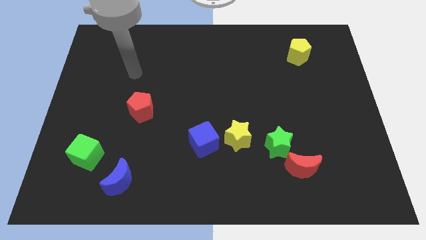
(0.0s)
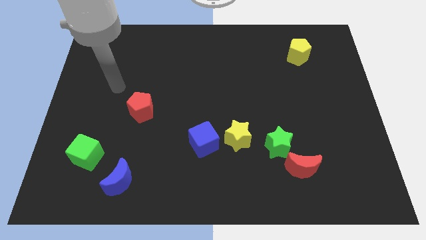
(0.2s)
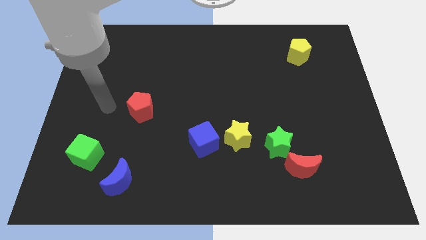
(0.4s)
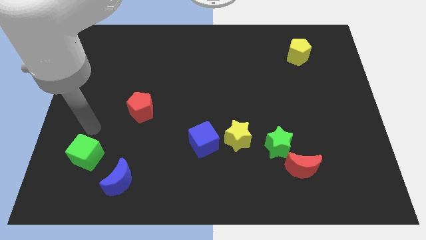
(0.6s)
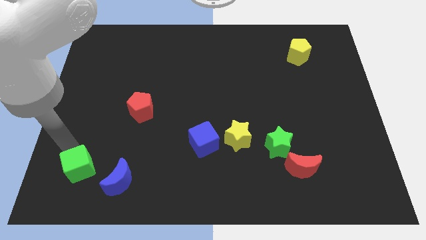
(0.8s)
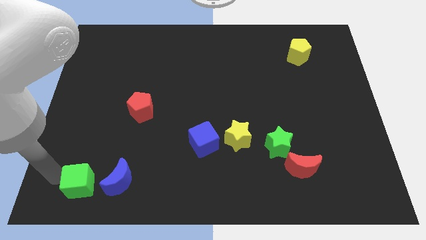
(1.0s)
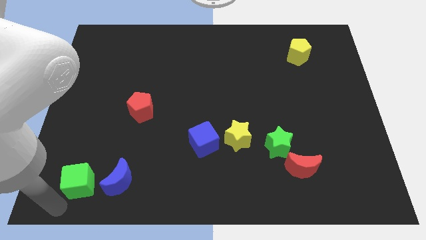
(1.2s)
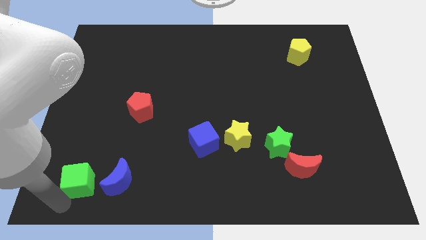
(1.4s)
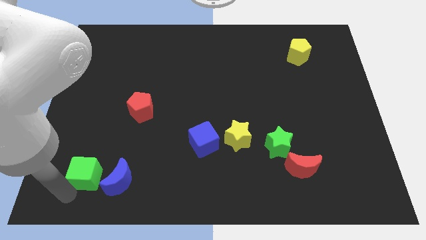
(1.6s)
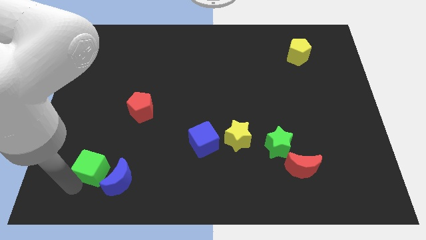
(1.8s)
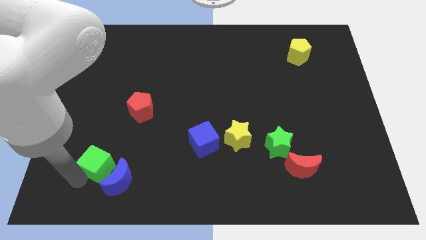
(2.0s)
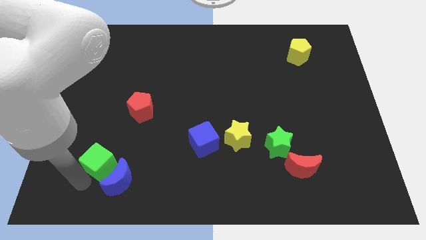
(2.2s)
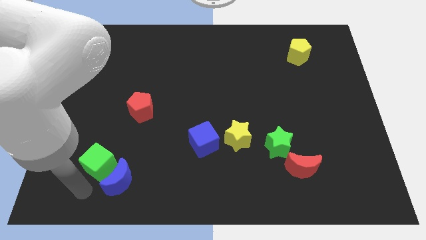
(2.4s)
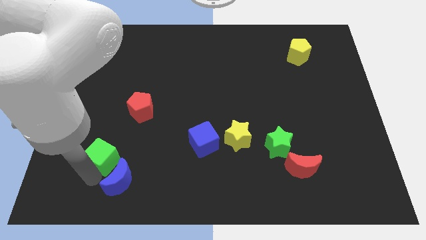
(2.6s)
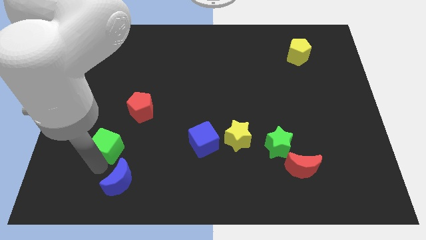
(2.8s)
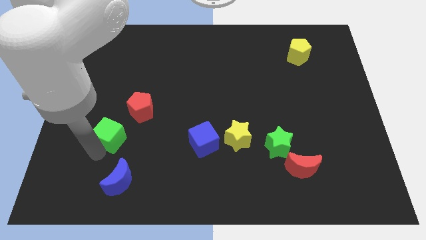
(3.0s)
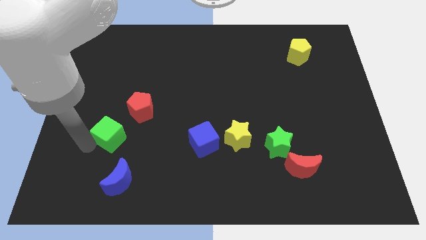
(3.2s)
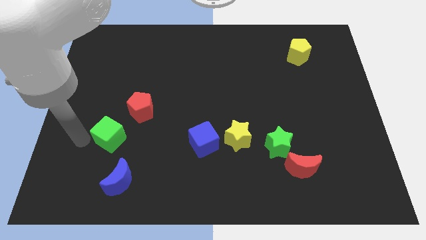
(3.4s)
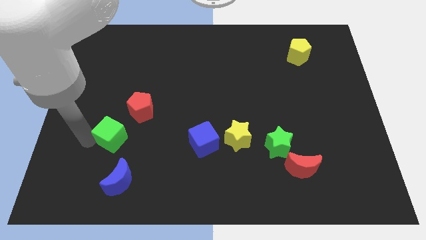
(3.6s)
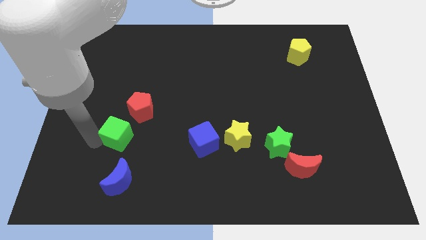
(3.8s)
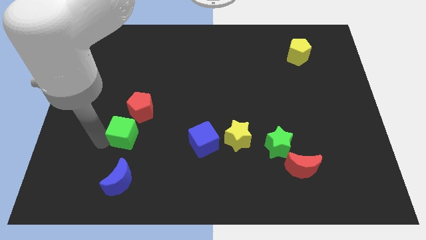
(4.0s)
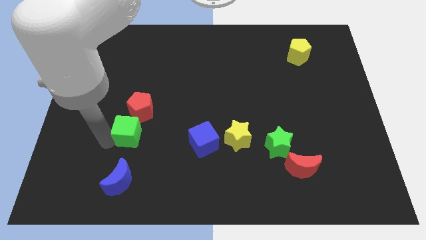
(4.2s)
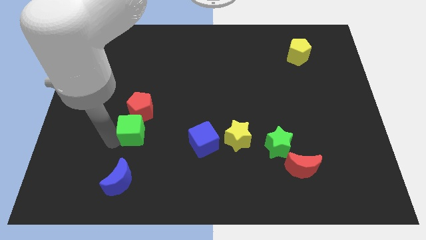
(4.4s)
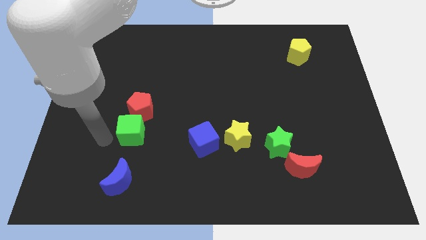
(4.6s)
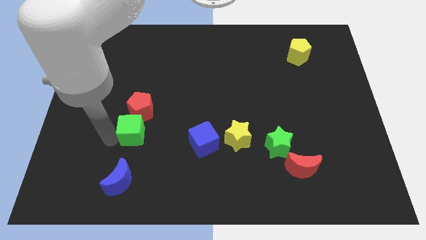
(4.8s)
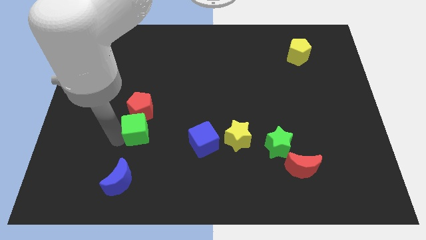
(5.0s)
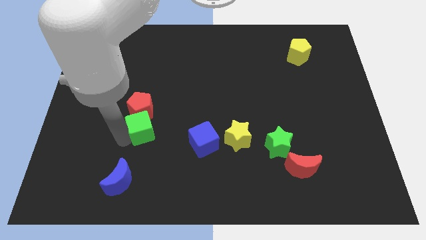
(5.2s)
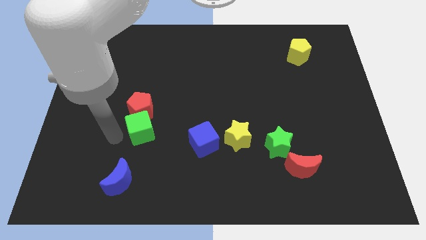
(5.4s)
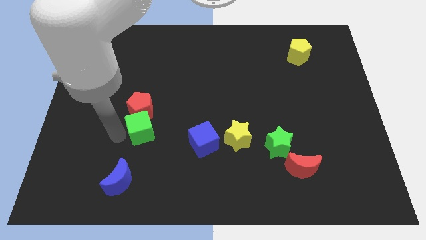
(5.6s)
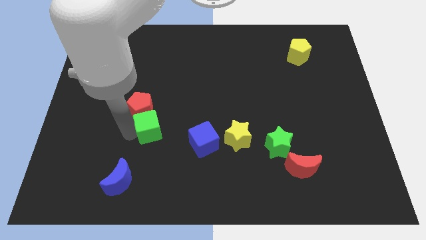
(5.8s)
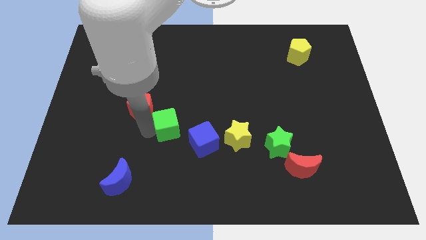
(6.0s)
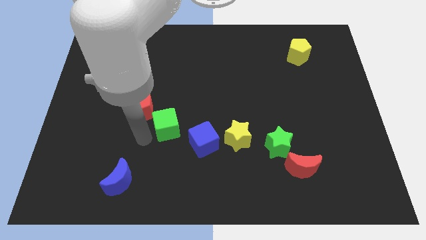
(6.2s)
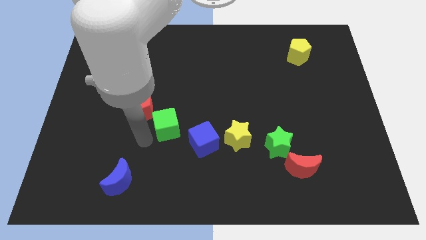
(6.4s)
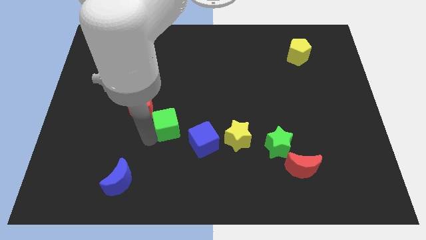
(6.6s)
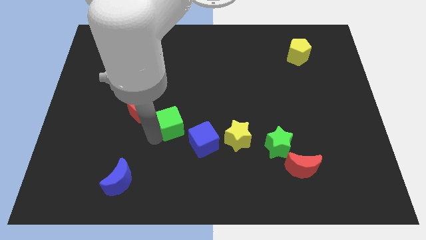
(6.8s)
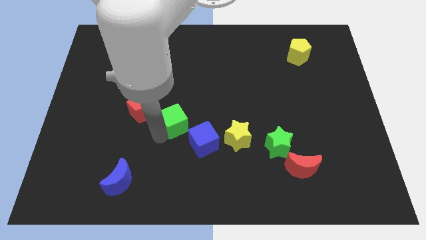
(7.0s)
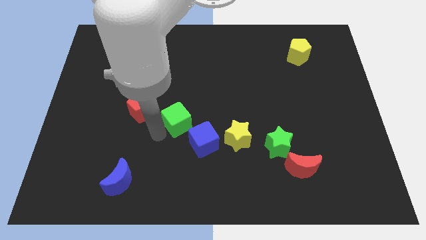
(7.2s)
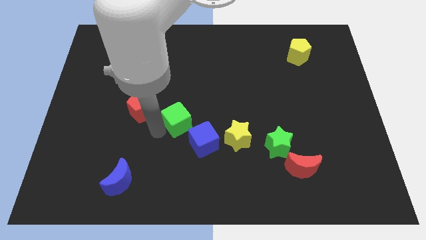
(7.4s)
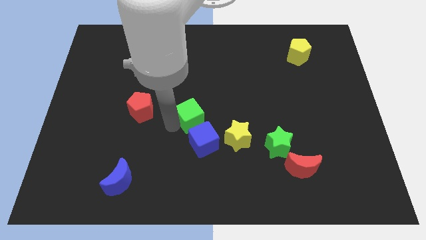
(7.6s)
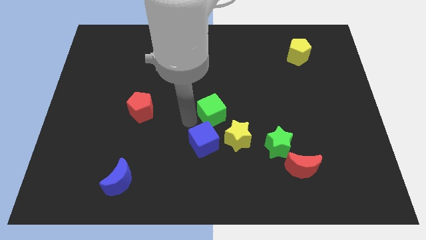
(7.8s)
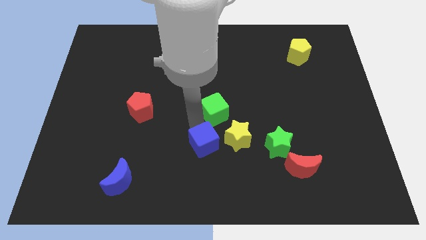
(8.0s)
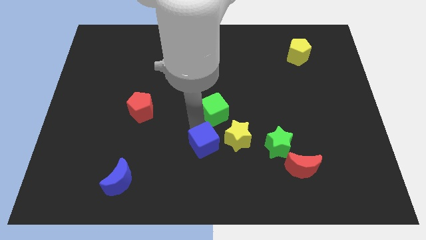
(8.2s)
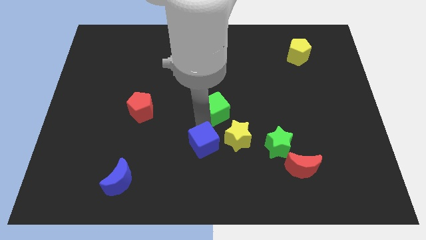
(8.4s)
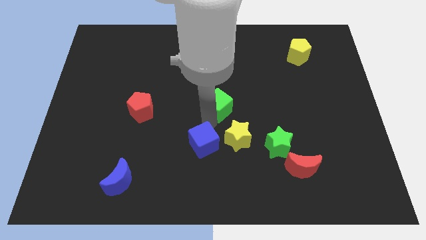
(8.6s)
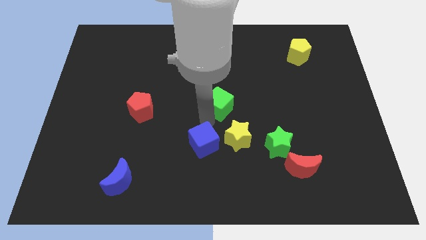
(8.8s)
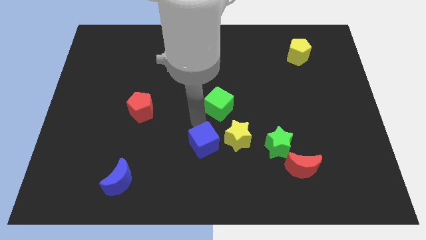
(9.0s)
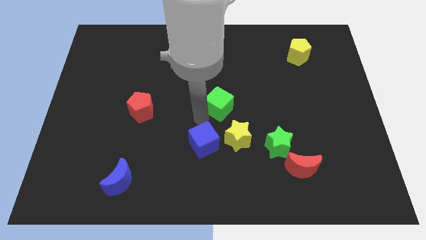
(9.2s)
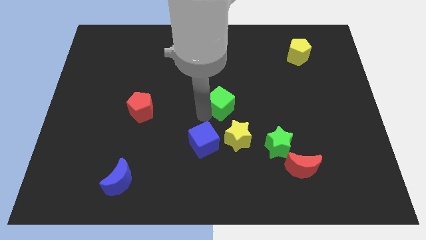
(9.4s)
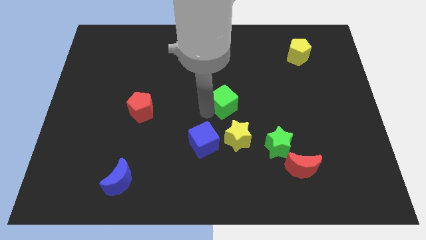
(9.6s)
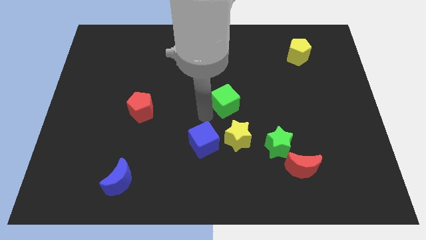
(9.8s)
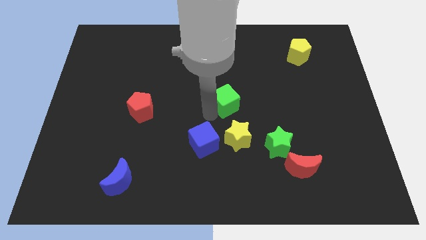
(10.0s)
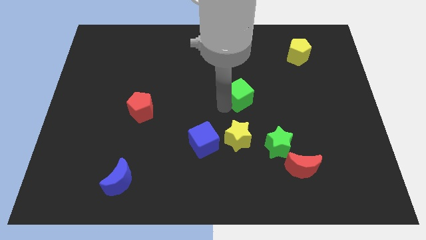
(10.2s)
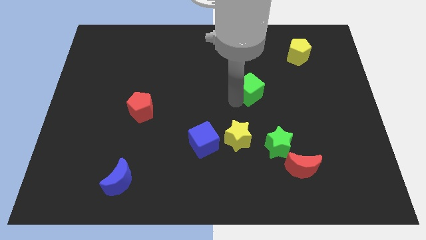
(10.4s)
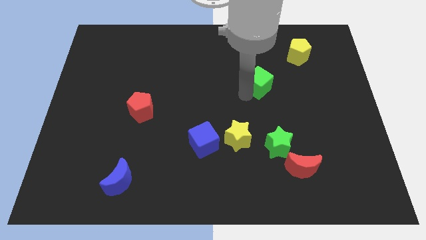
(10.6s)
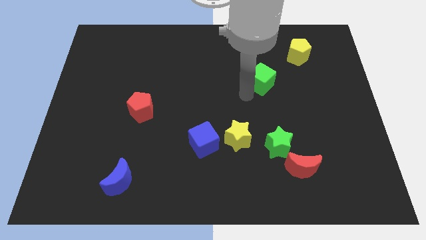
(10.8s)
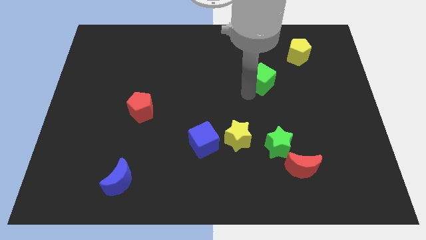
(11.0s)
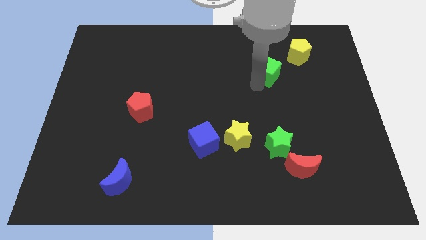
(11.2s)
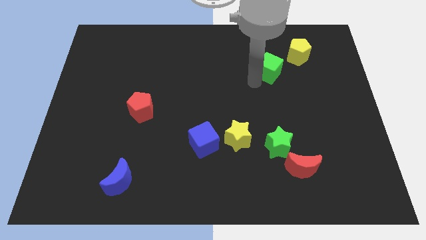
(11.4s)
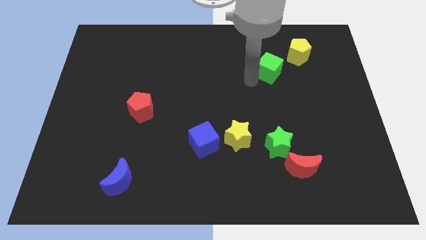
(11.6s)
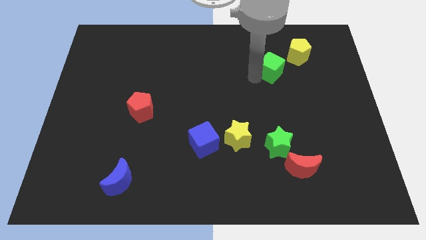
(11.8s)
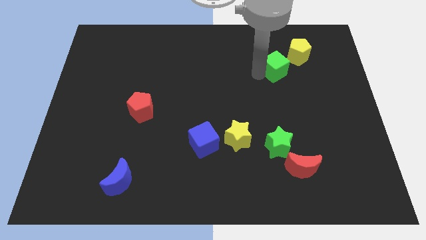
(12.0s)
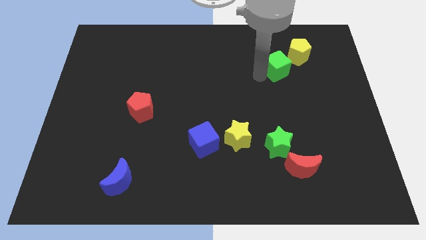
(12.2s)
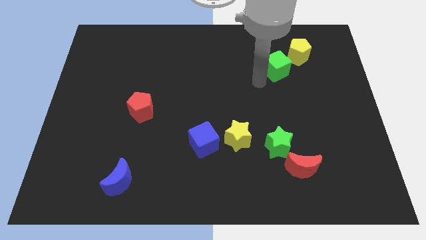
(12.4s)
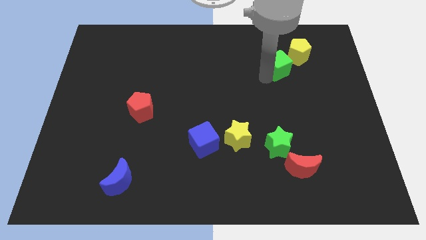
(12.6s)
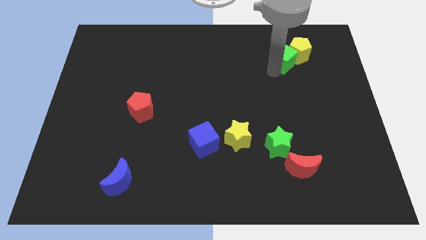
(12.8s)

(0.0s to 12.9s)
move the green cube next to the yellow pentagon

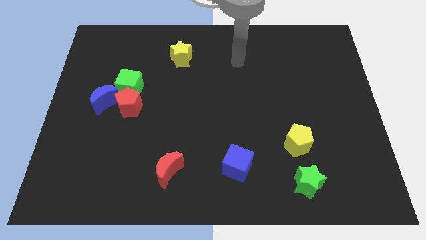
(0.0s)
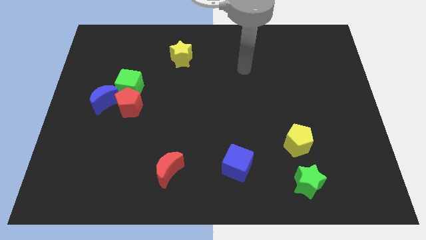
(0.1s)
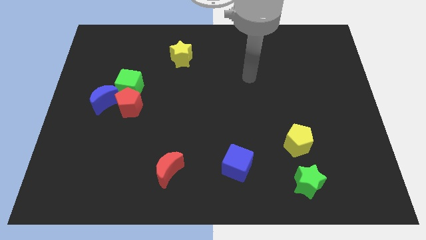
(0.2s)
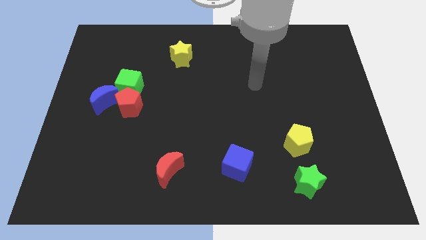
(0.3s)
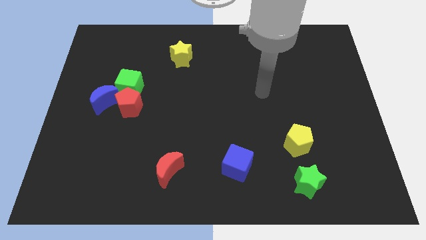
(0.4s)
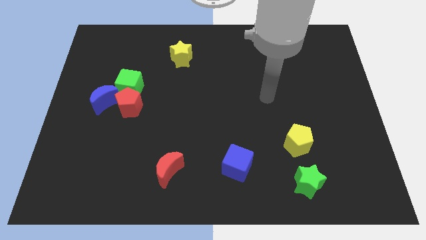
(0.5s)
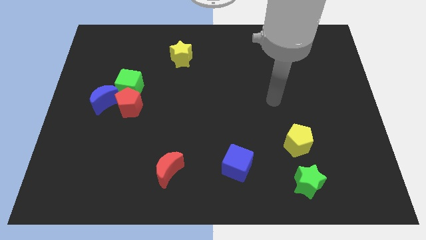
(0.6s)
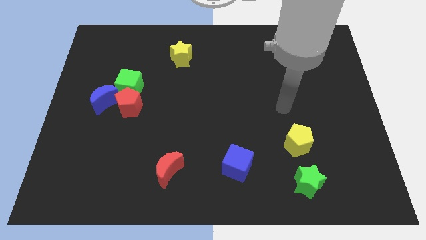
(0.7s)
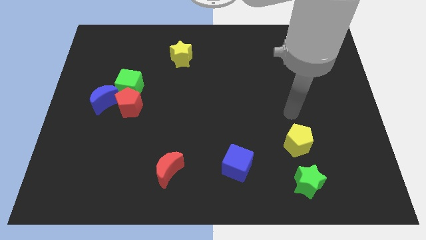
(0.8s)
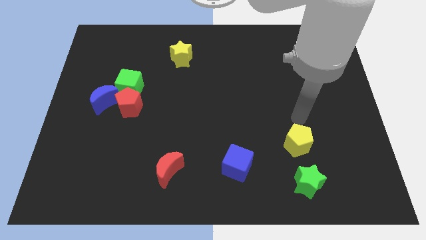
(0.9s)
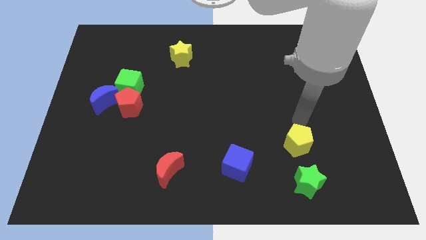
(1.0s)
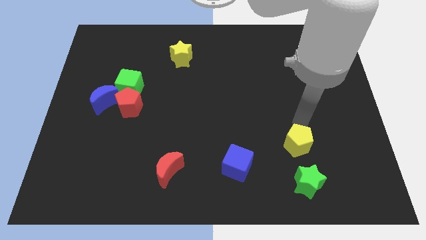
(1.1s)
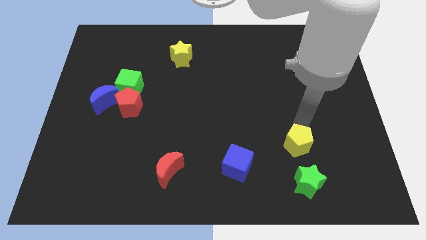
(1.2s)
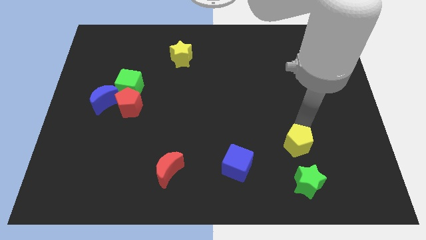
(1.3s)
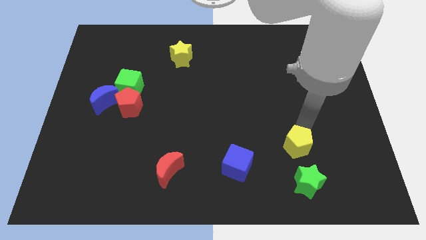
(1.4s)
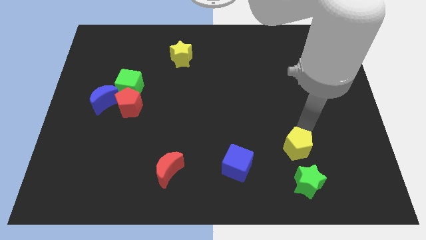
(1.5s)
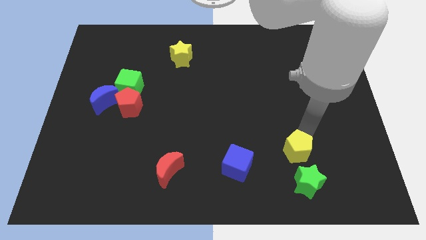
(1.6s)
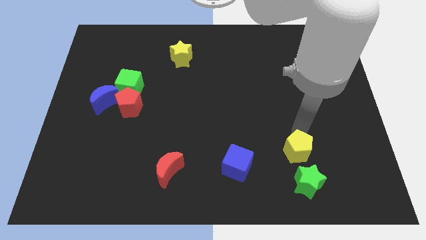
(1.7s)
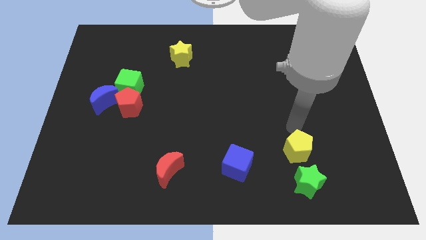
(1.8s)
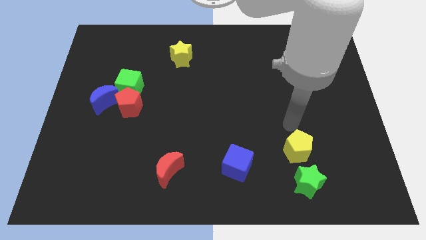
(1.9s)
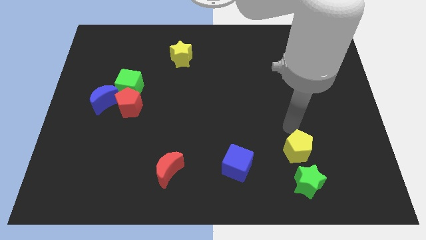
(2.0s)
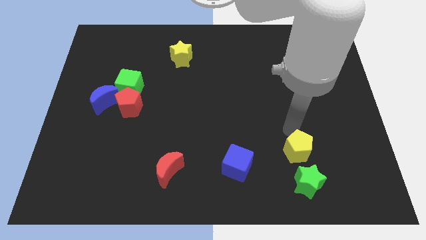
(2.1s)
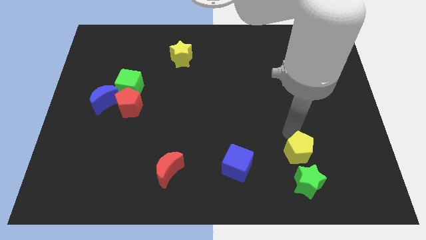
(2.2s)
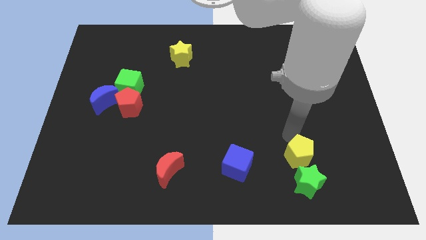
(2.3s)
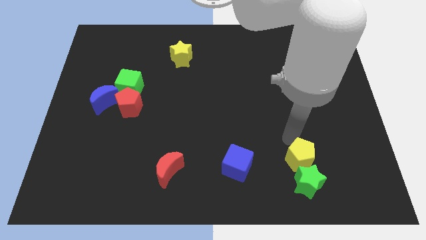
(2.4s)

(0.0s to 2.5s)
put the yellow pentagon to the green star
